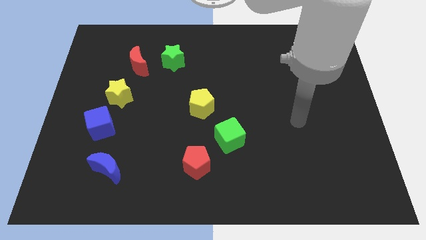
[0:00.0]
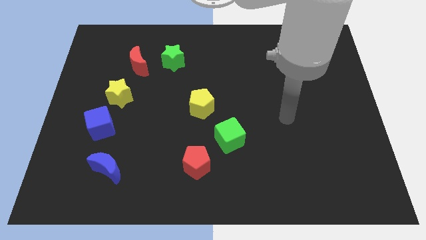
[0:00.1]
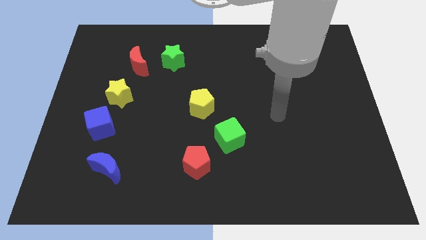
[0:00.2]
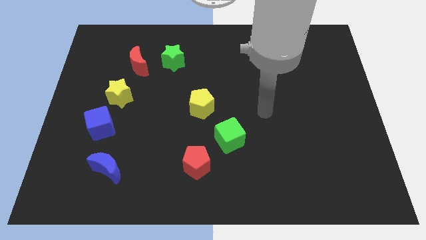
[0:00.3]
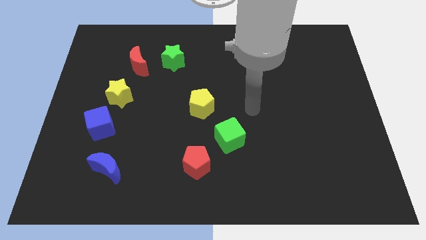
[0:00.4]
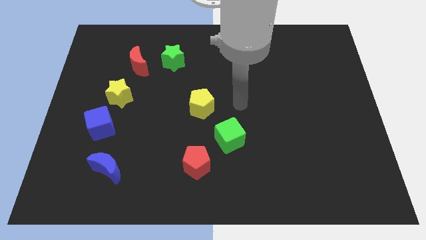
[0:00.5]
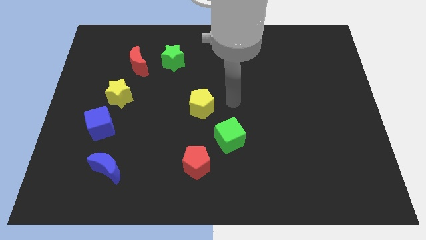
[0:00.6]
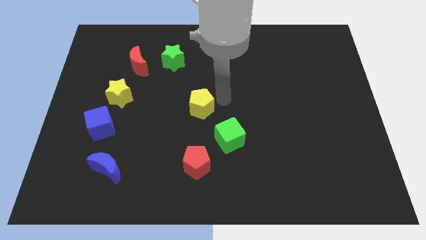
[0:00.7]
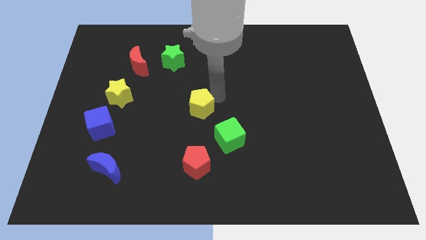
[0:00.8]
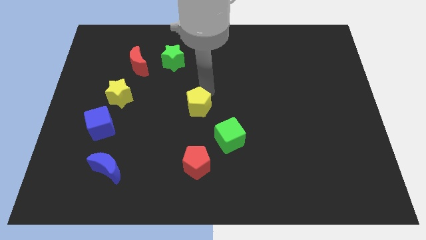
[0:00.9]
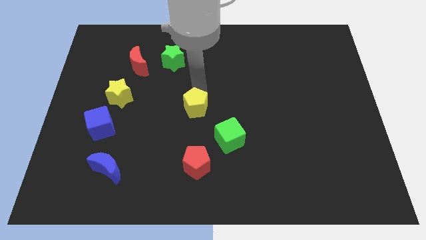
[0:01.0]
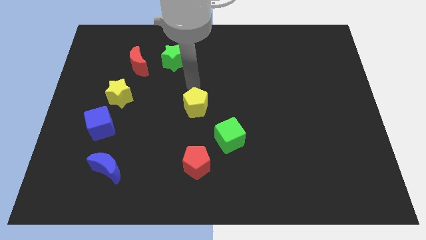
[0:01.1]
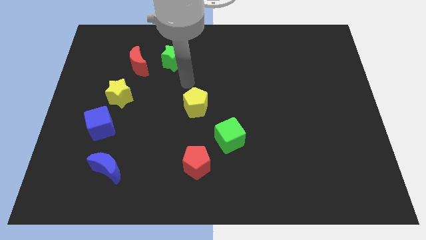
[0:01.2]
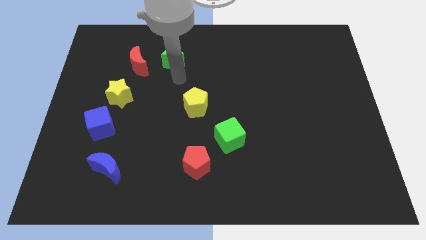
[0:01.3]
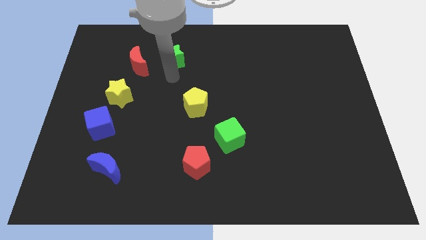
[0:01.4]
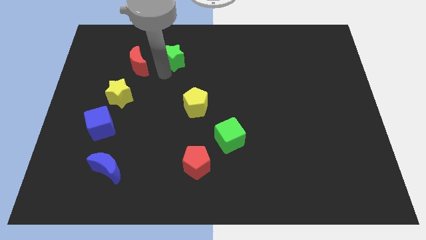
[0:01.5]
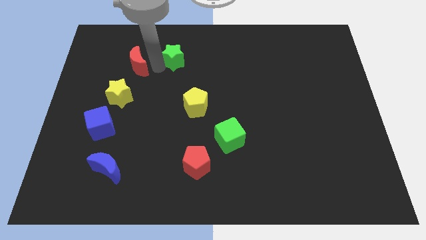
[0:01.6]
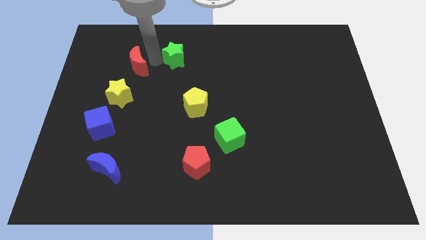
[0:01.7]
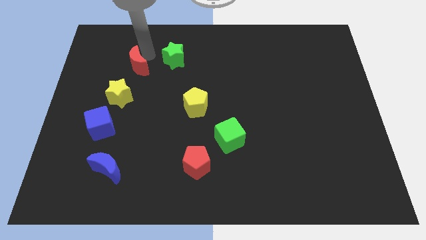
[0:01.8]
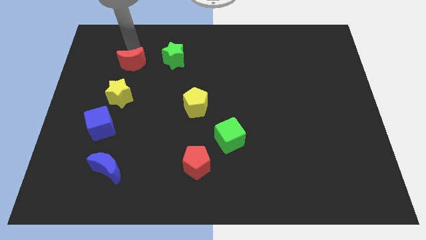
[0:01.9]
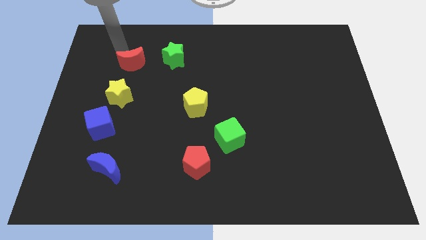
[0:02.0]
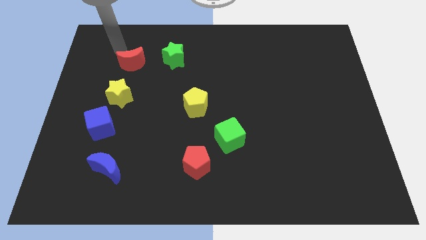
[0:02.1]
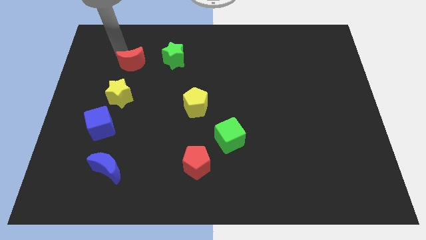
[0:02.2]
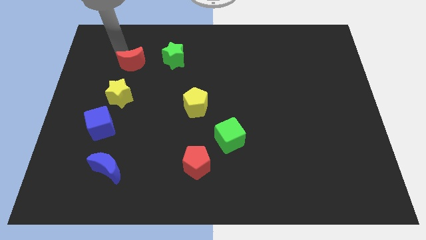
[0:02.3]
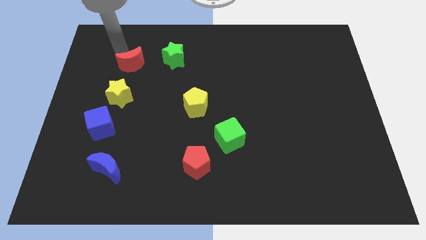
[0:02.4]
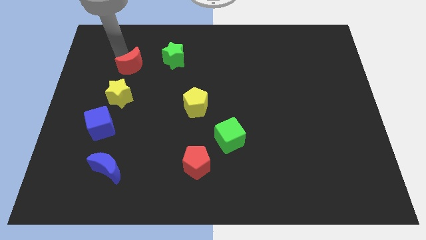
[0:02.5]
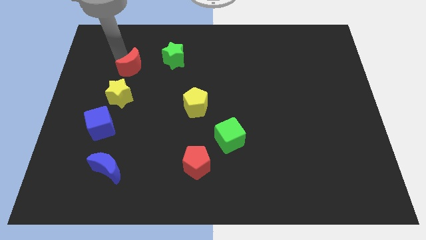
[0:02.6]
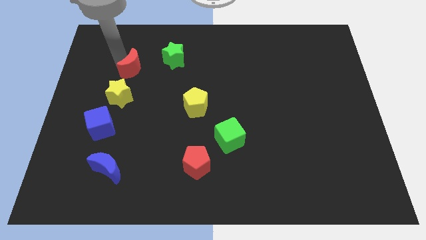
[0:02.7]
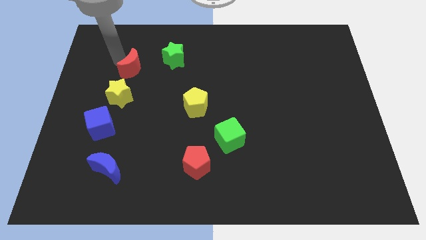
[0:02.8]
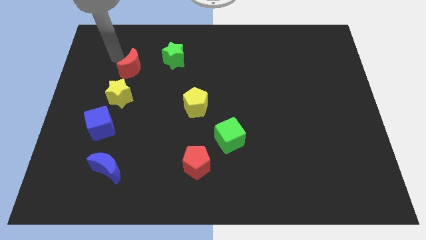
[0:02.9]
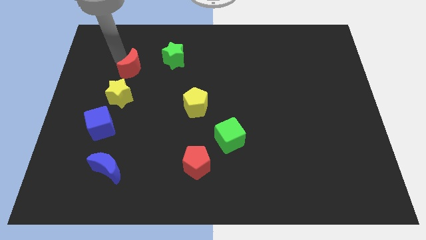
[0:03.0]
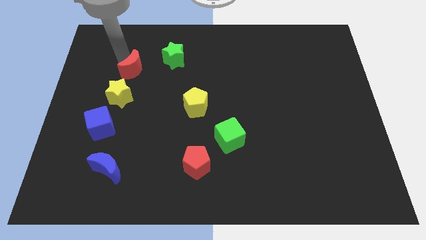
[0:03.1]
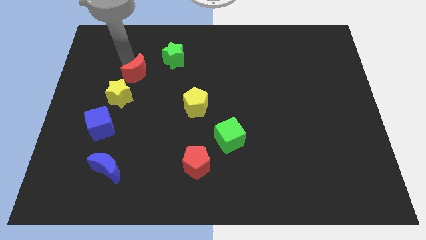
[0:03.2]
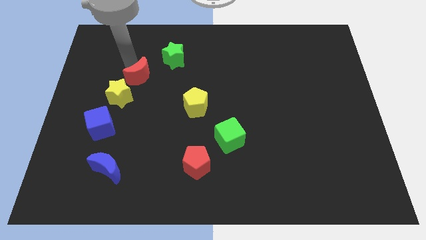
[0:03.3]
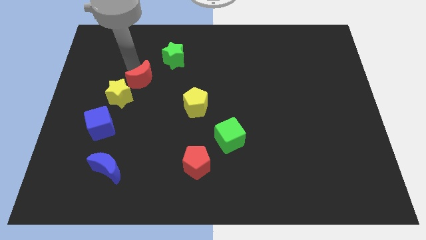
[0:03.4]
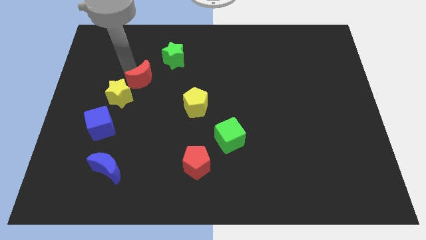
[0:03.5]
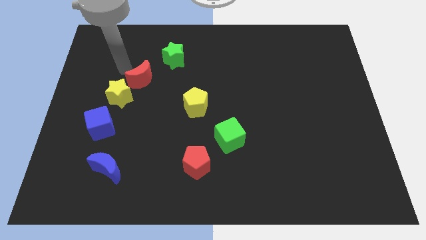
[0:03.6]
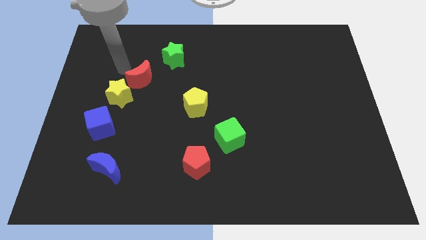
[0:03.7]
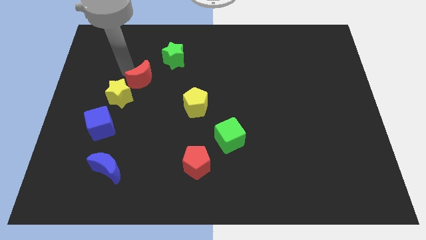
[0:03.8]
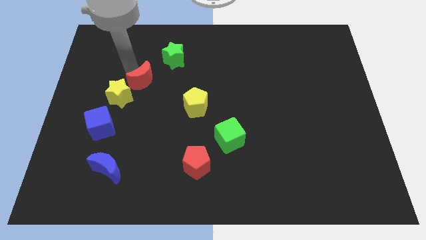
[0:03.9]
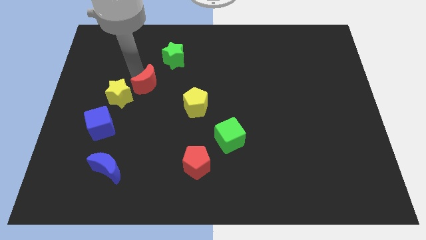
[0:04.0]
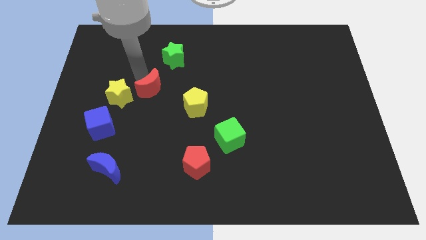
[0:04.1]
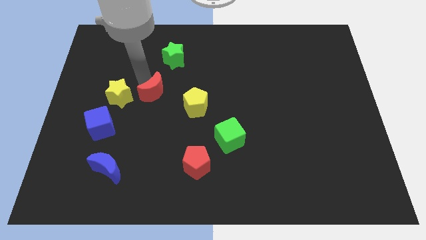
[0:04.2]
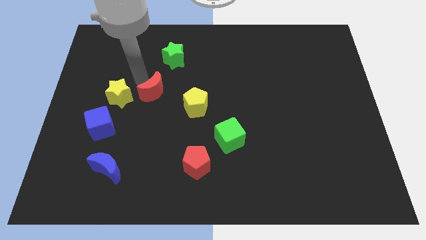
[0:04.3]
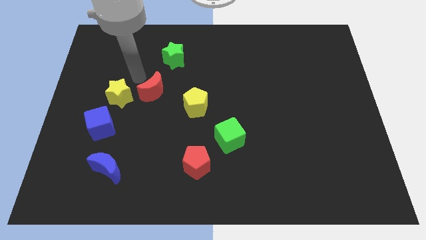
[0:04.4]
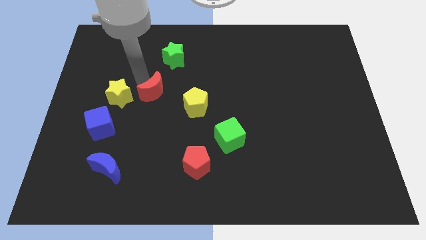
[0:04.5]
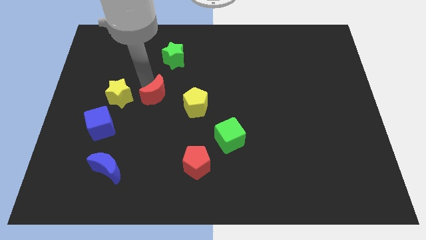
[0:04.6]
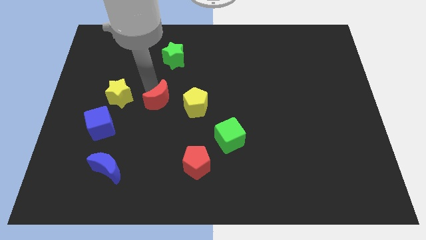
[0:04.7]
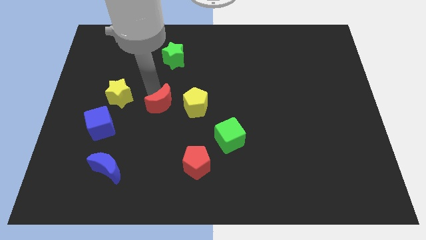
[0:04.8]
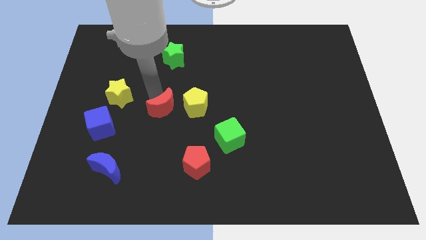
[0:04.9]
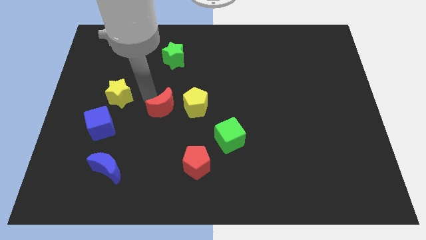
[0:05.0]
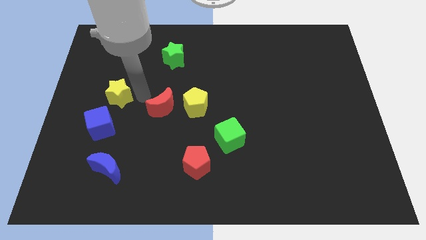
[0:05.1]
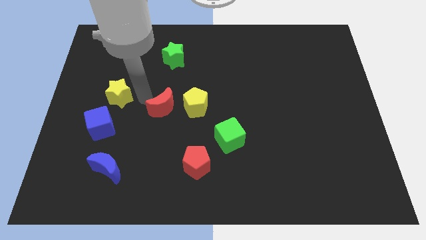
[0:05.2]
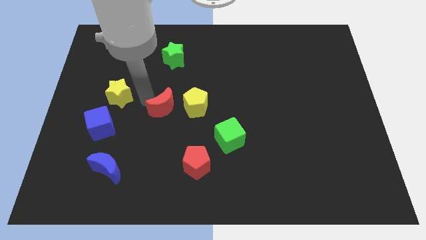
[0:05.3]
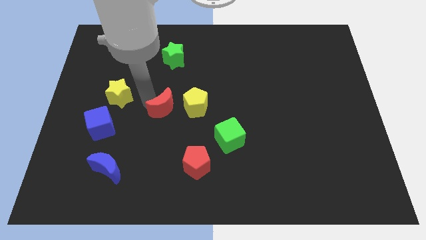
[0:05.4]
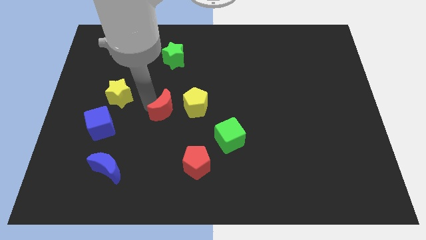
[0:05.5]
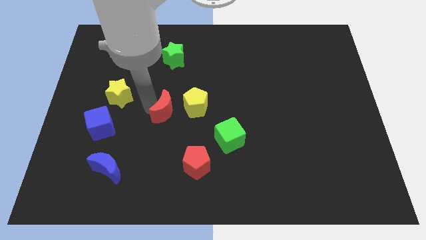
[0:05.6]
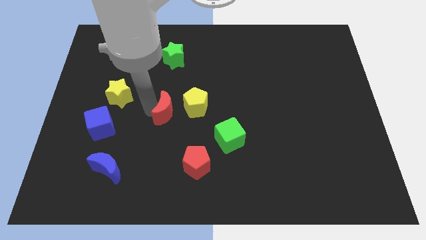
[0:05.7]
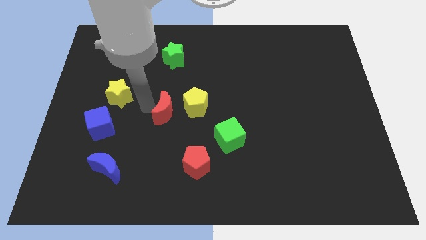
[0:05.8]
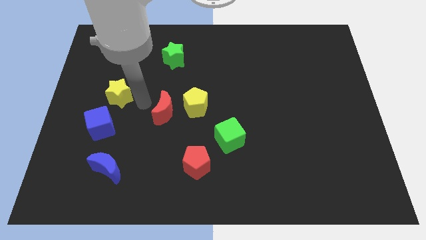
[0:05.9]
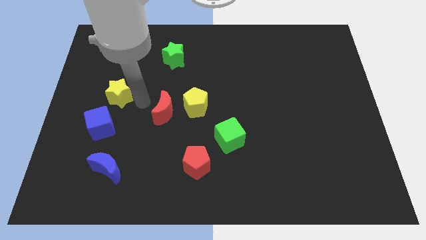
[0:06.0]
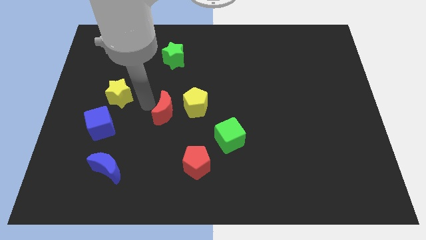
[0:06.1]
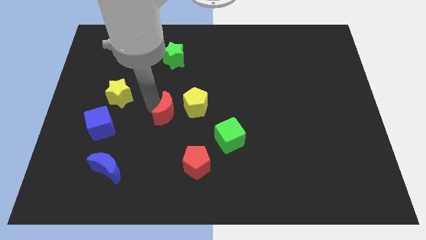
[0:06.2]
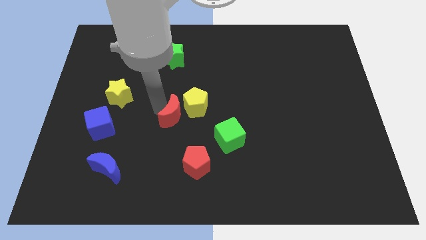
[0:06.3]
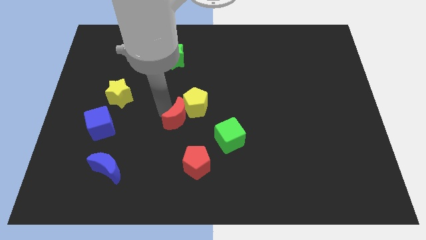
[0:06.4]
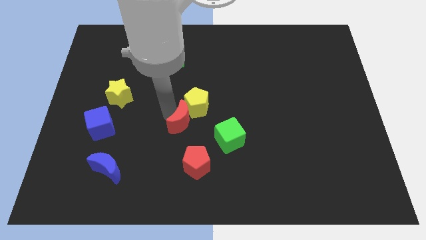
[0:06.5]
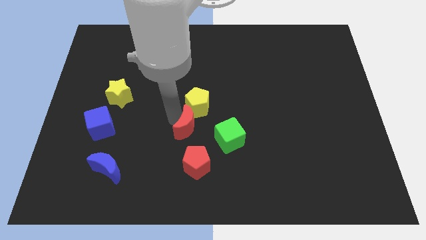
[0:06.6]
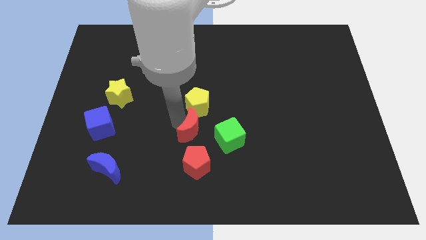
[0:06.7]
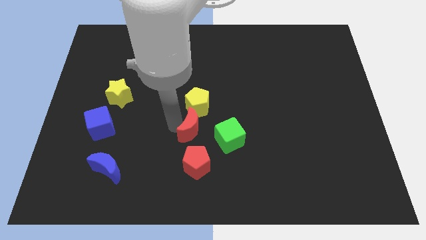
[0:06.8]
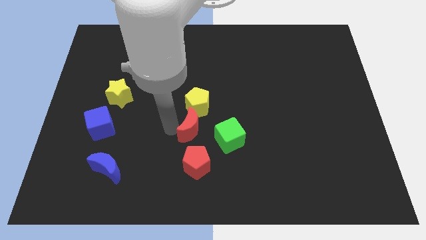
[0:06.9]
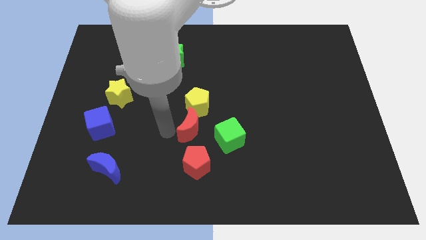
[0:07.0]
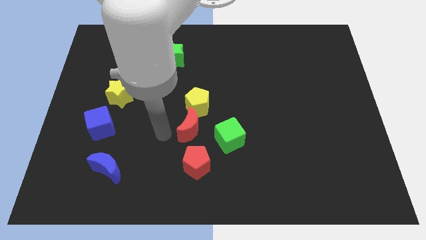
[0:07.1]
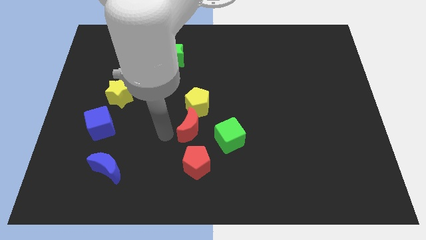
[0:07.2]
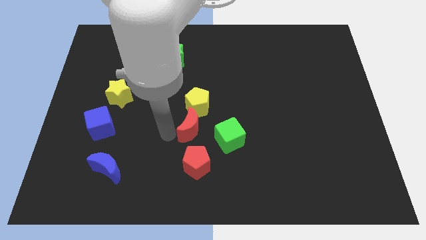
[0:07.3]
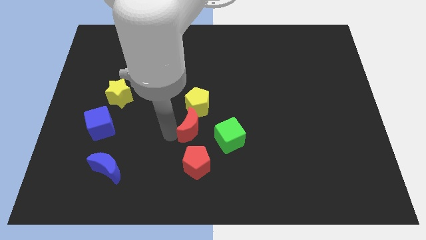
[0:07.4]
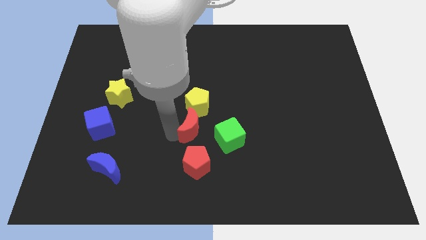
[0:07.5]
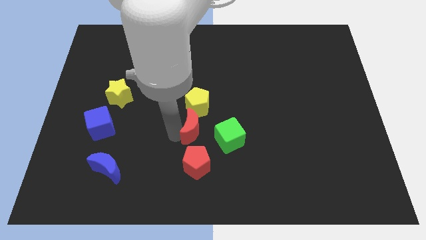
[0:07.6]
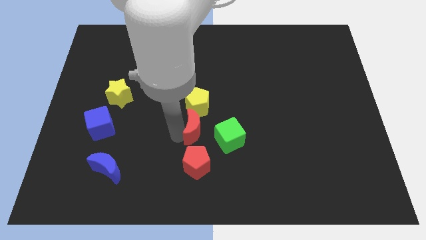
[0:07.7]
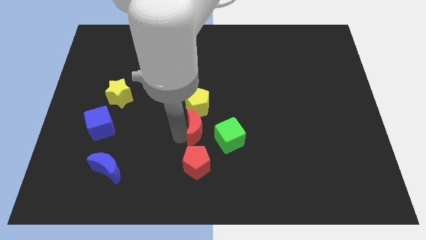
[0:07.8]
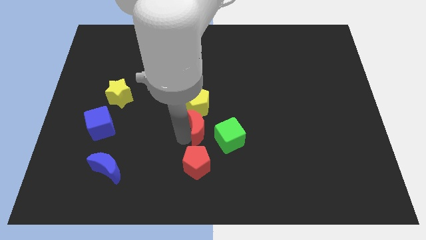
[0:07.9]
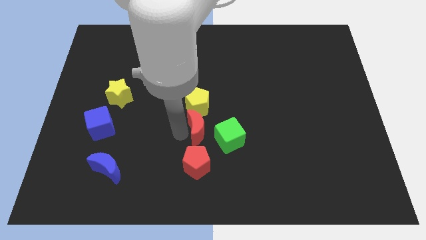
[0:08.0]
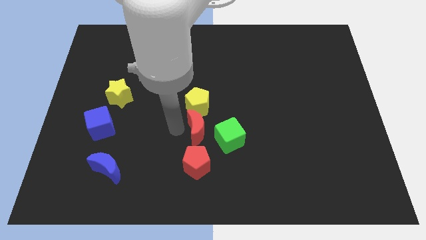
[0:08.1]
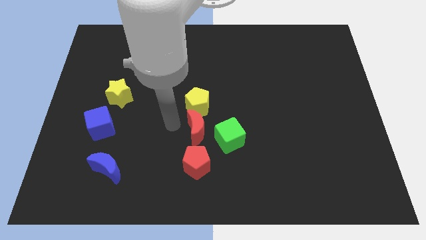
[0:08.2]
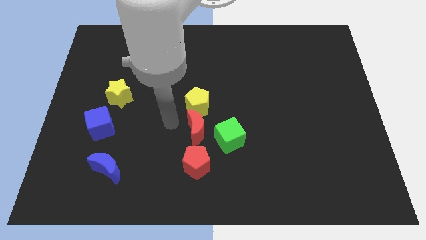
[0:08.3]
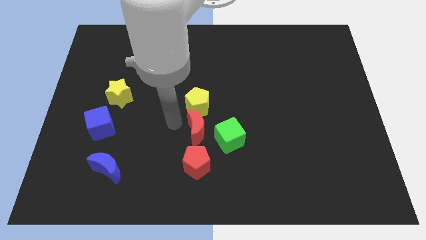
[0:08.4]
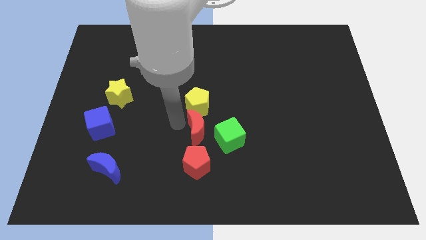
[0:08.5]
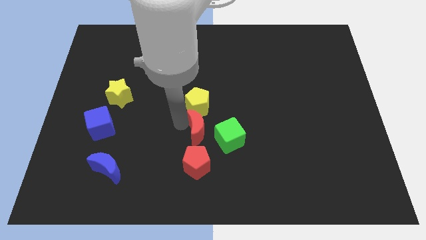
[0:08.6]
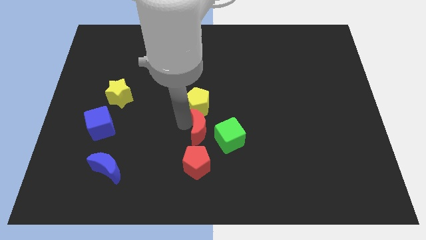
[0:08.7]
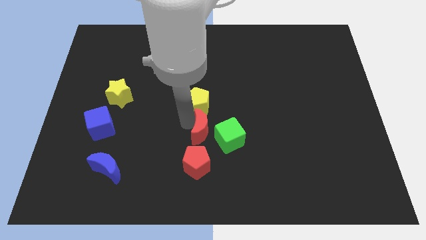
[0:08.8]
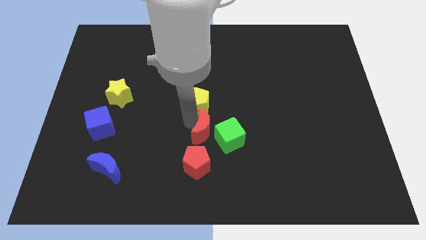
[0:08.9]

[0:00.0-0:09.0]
put the red moon towards the green cube
